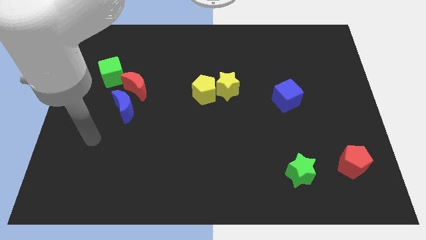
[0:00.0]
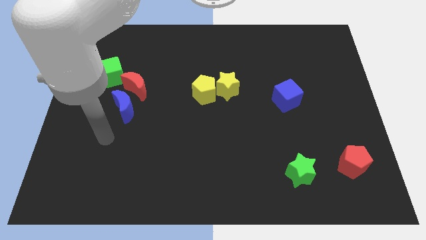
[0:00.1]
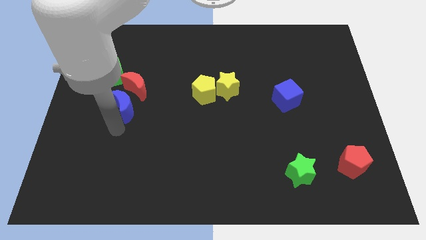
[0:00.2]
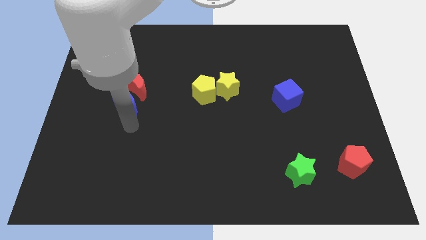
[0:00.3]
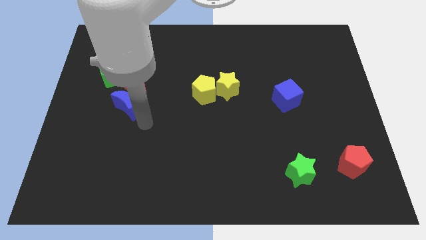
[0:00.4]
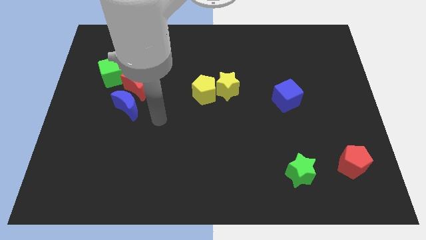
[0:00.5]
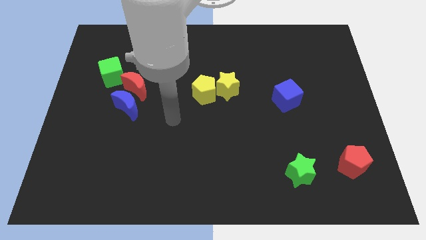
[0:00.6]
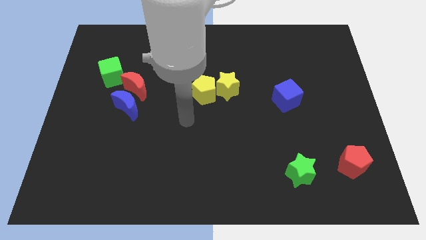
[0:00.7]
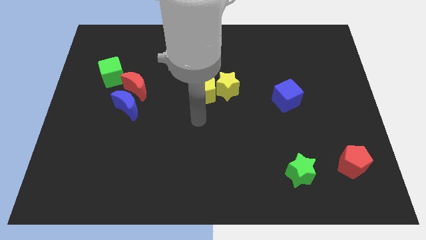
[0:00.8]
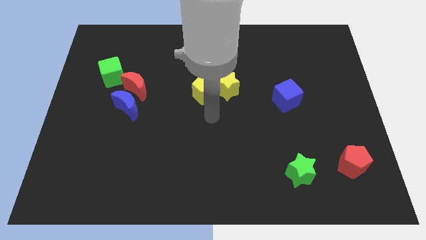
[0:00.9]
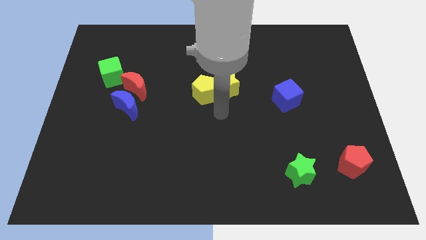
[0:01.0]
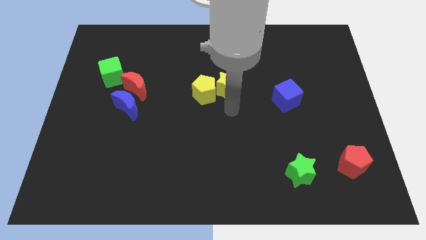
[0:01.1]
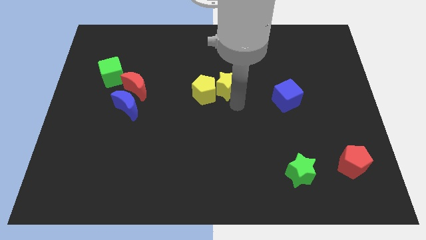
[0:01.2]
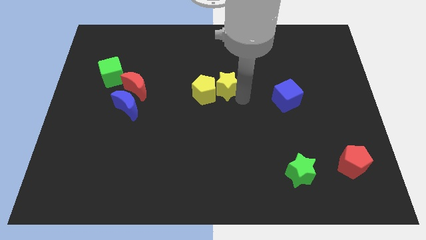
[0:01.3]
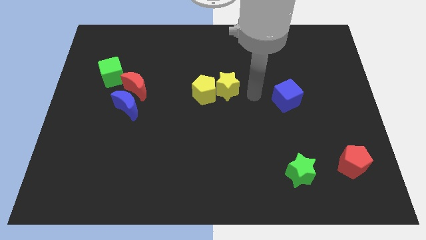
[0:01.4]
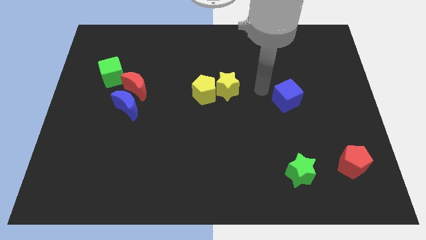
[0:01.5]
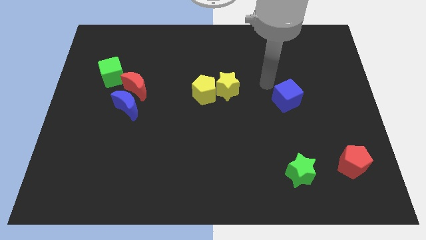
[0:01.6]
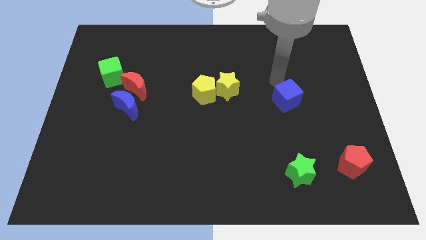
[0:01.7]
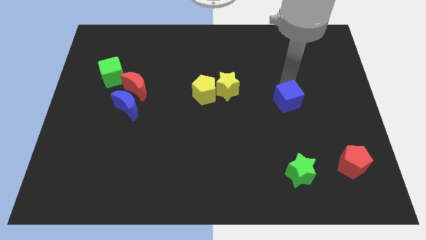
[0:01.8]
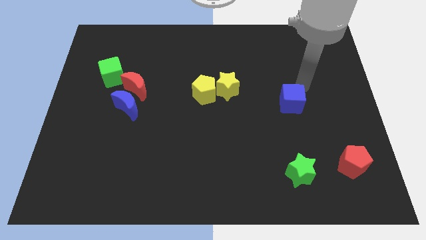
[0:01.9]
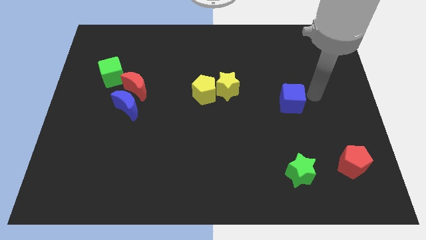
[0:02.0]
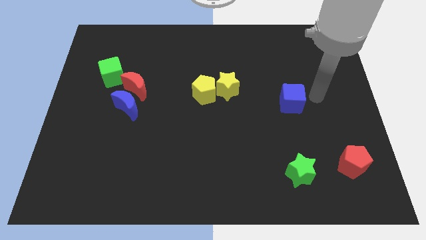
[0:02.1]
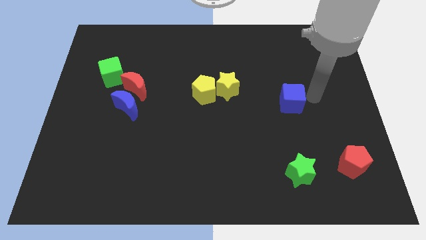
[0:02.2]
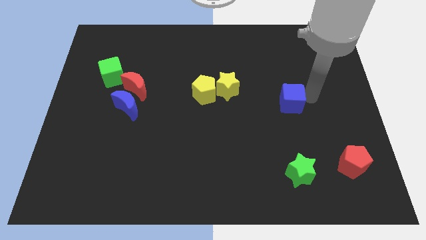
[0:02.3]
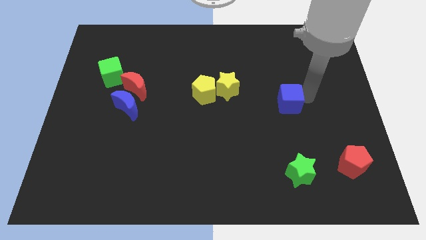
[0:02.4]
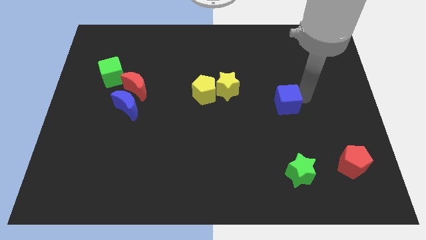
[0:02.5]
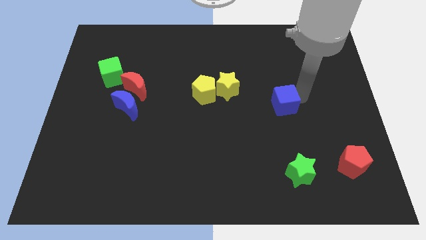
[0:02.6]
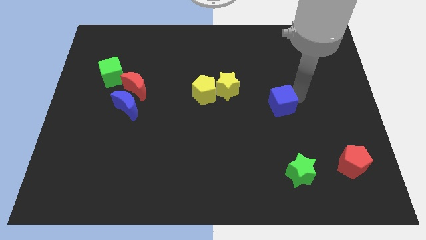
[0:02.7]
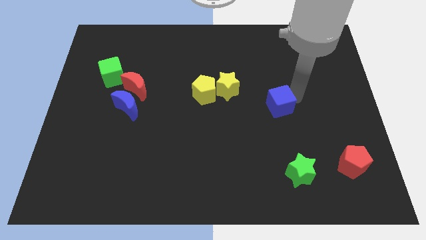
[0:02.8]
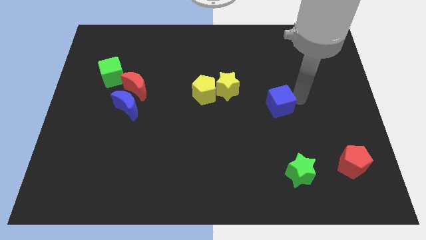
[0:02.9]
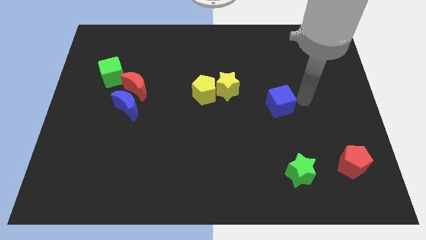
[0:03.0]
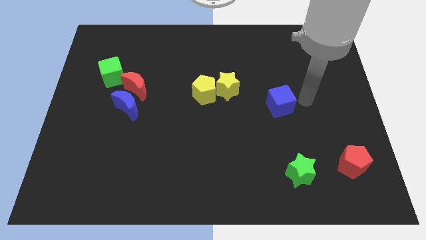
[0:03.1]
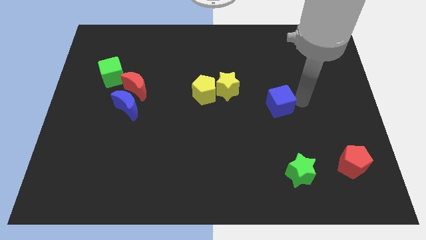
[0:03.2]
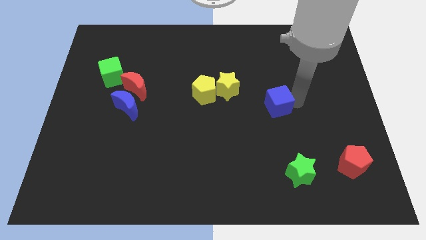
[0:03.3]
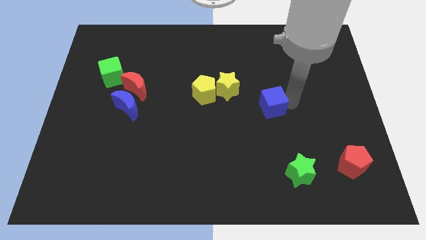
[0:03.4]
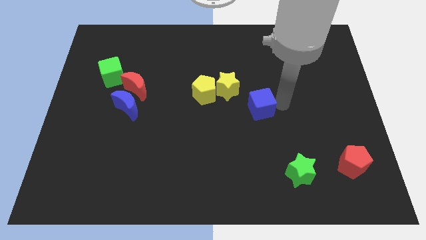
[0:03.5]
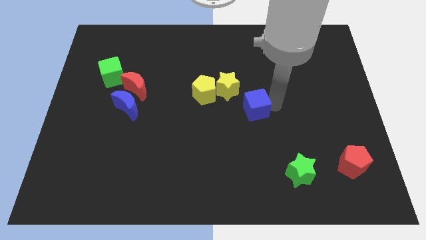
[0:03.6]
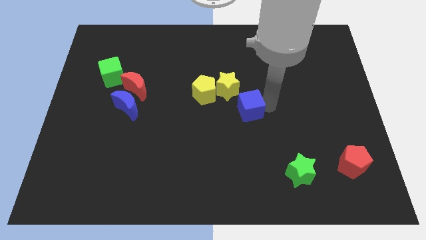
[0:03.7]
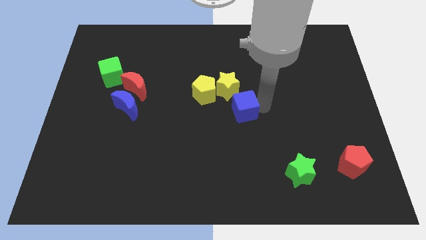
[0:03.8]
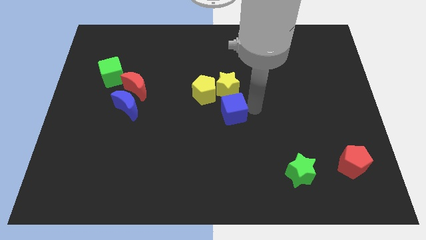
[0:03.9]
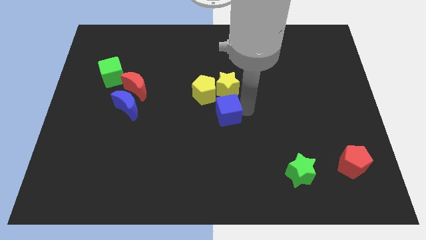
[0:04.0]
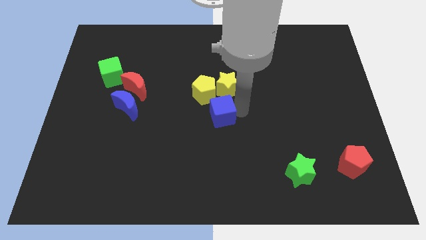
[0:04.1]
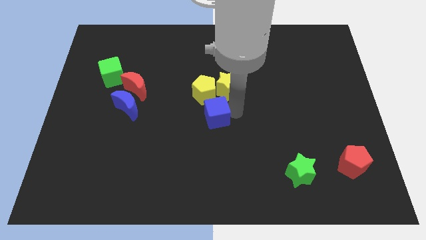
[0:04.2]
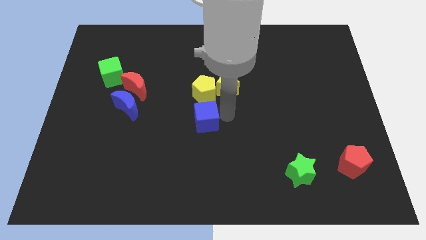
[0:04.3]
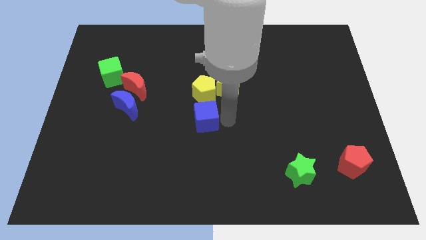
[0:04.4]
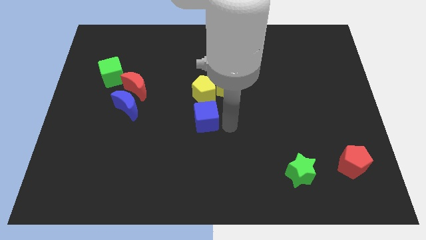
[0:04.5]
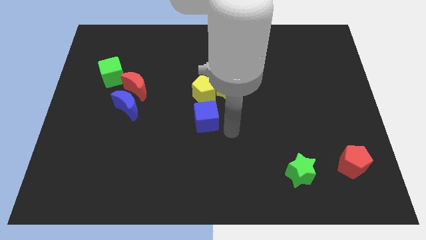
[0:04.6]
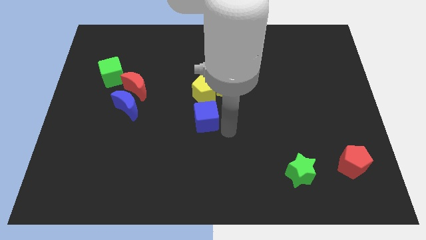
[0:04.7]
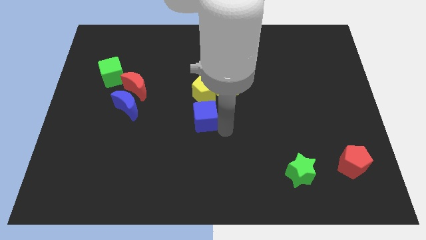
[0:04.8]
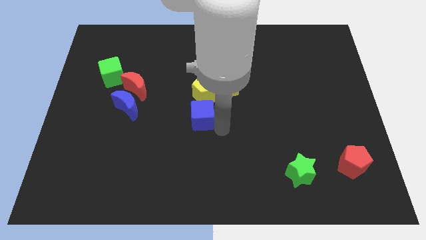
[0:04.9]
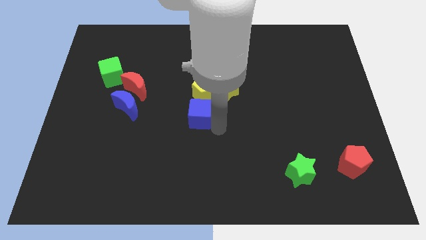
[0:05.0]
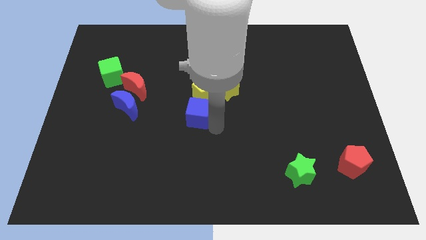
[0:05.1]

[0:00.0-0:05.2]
move the blue cube left

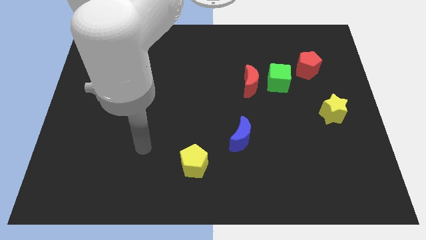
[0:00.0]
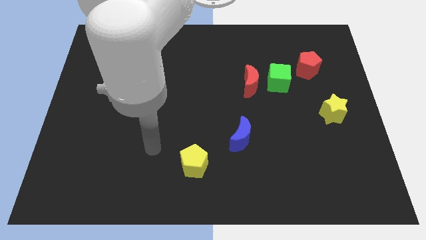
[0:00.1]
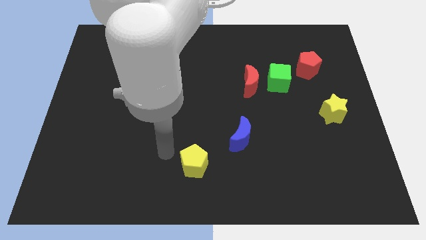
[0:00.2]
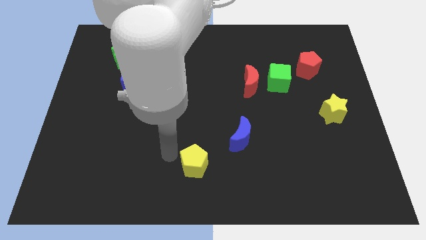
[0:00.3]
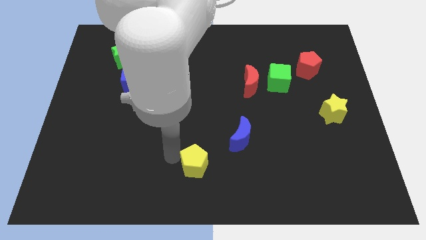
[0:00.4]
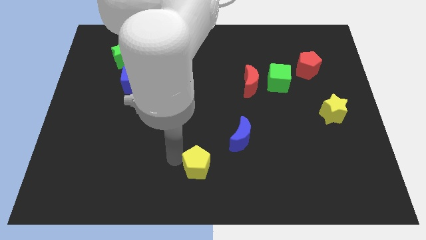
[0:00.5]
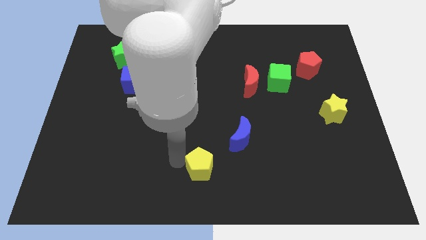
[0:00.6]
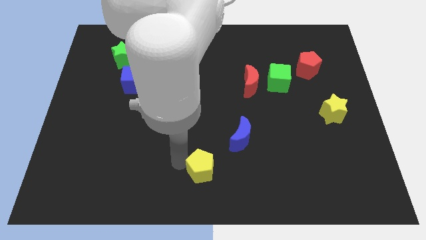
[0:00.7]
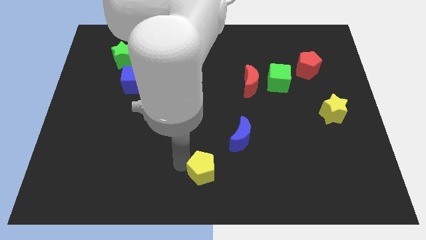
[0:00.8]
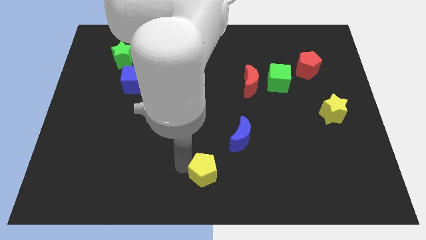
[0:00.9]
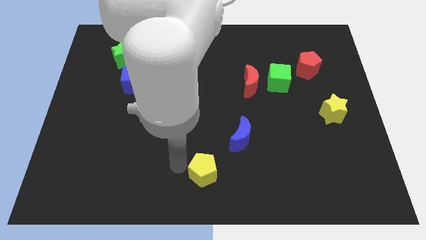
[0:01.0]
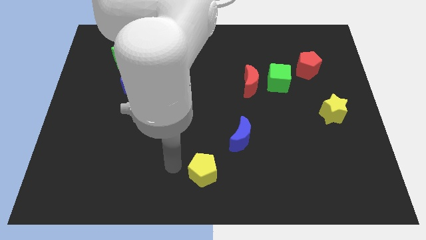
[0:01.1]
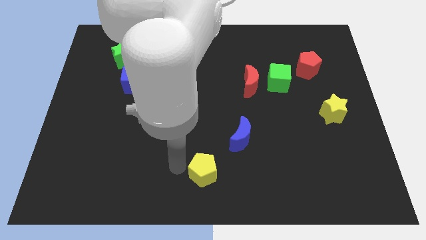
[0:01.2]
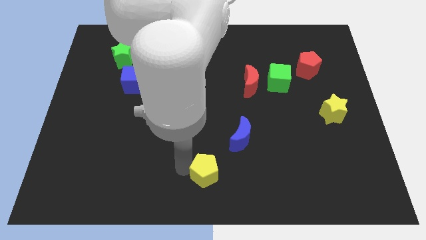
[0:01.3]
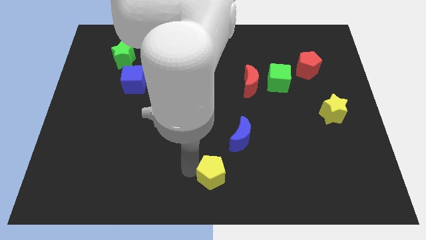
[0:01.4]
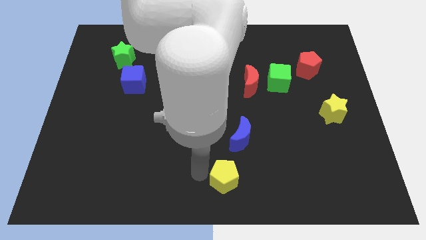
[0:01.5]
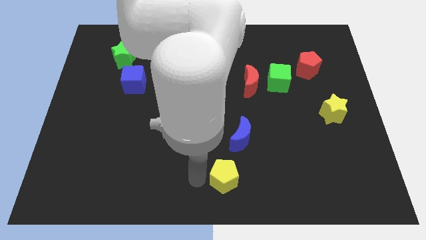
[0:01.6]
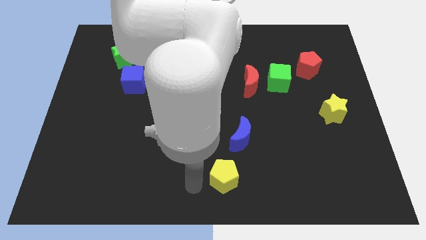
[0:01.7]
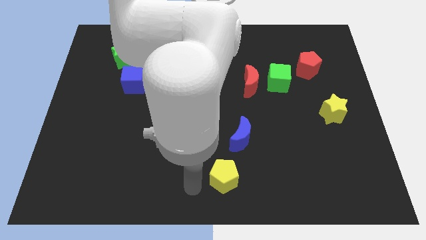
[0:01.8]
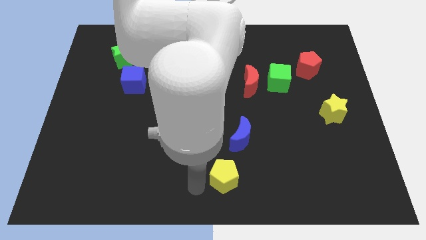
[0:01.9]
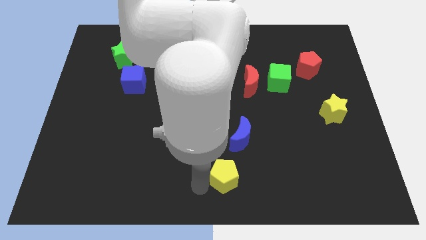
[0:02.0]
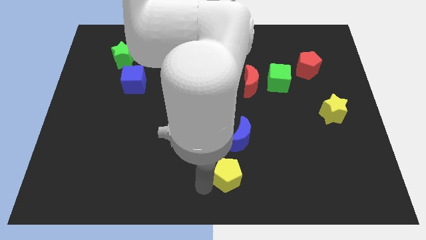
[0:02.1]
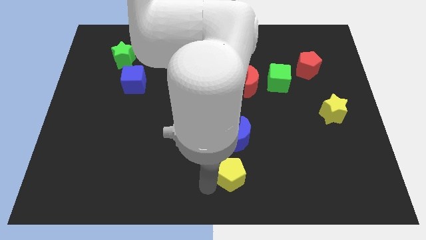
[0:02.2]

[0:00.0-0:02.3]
slightly push the yellow pentagon to the right

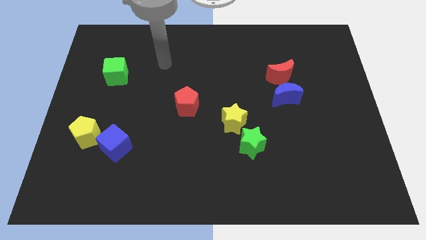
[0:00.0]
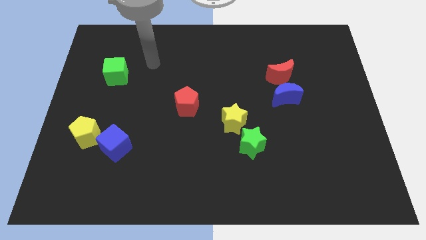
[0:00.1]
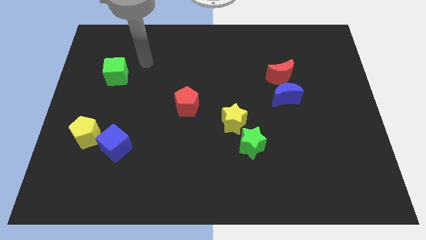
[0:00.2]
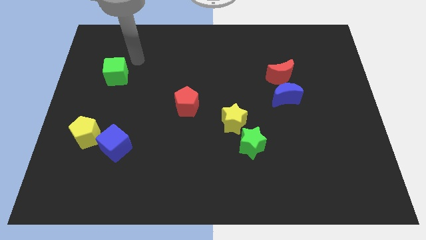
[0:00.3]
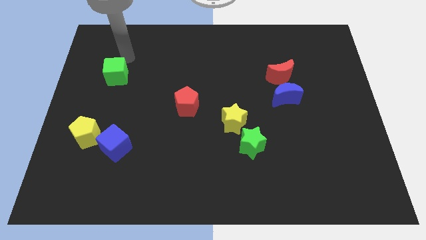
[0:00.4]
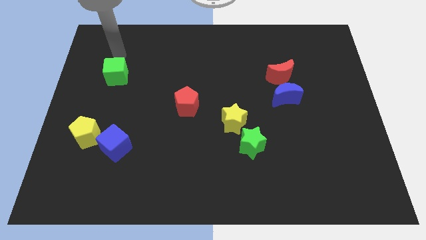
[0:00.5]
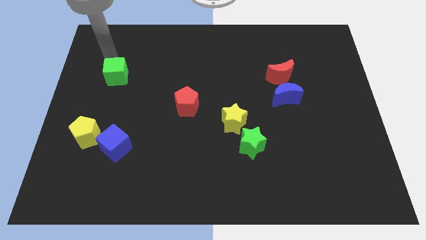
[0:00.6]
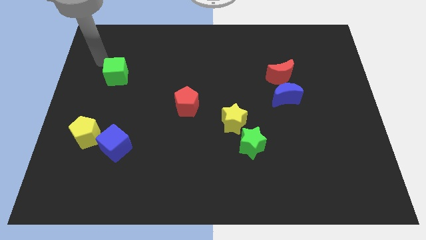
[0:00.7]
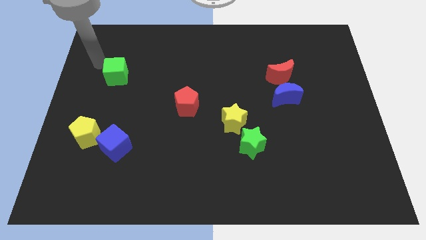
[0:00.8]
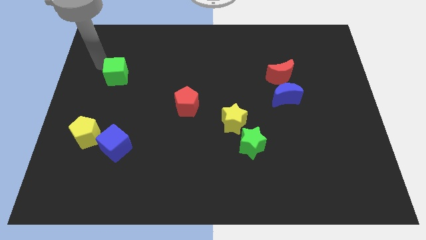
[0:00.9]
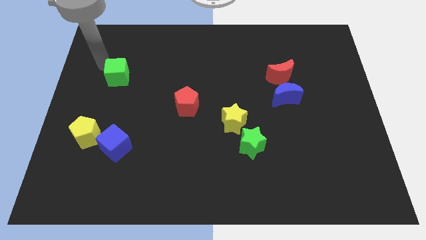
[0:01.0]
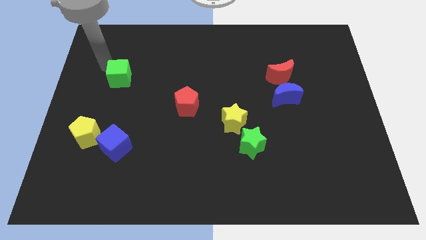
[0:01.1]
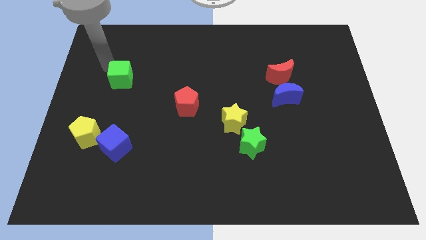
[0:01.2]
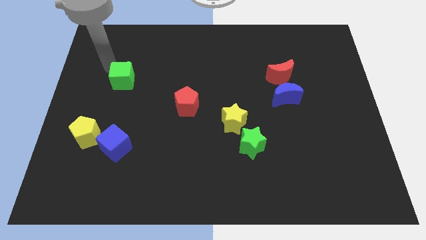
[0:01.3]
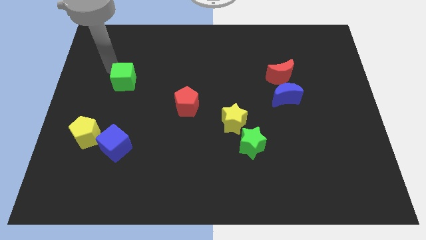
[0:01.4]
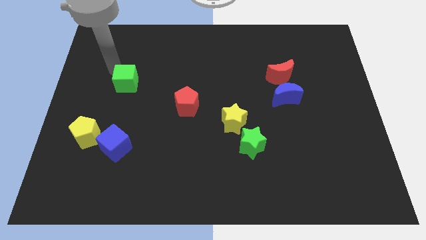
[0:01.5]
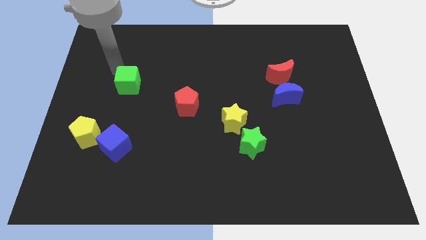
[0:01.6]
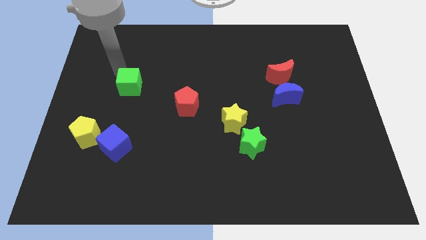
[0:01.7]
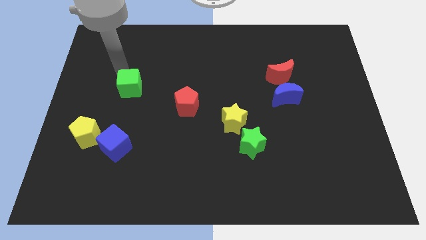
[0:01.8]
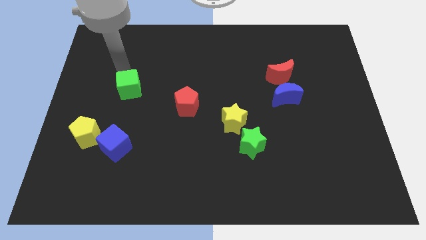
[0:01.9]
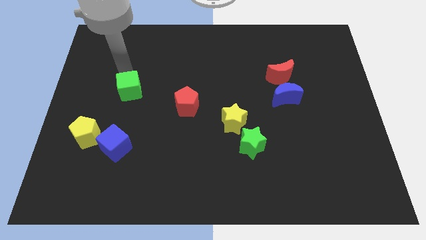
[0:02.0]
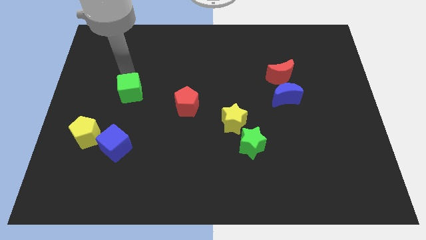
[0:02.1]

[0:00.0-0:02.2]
move the green cube diagonally downwards and to the right somewhat
